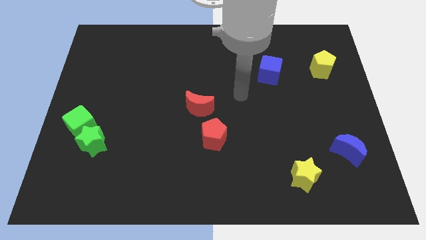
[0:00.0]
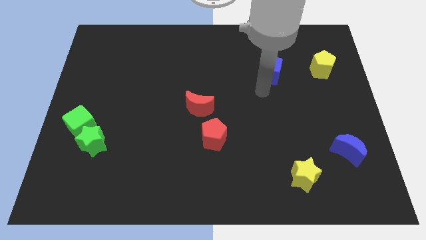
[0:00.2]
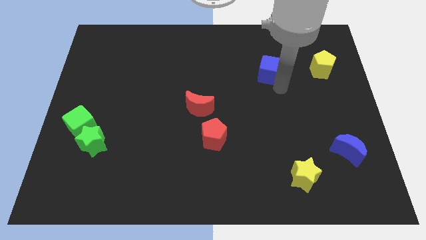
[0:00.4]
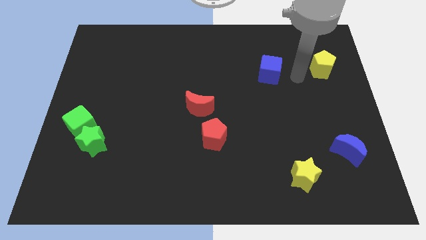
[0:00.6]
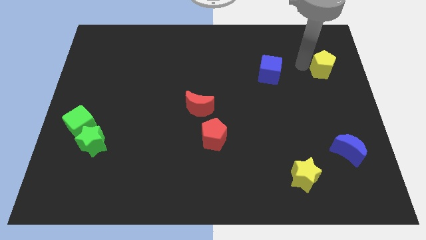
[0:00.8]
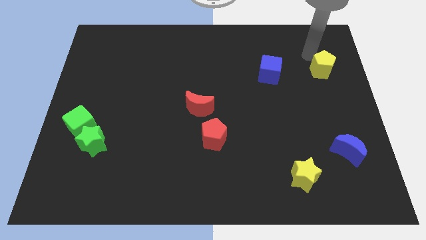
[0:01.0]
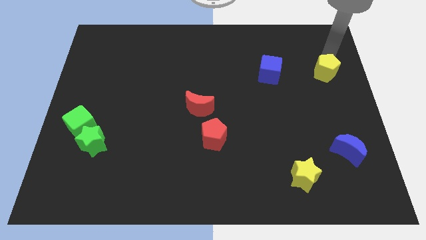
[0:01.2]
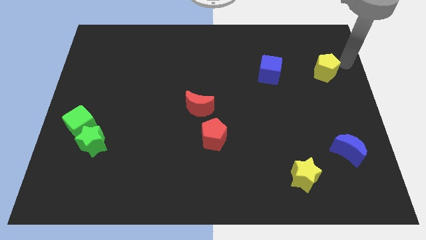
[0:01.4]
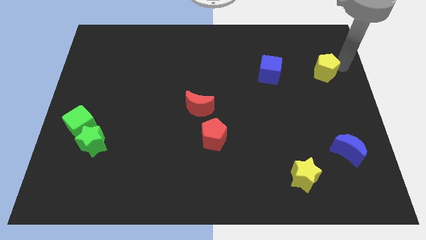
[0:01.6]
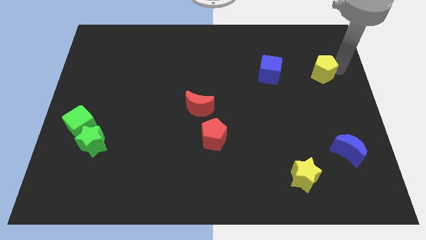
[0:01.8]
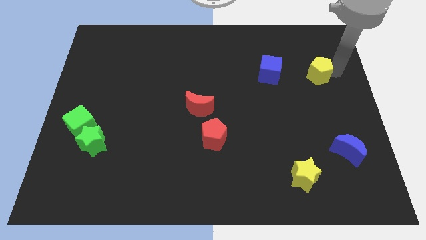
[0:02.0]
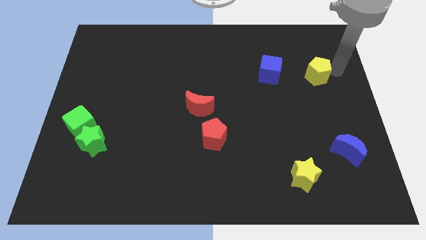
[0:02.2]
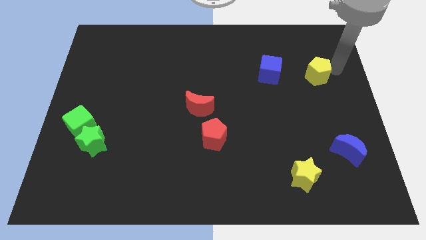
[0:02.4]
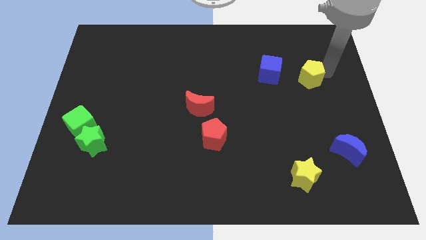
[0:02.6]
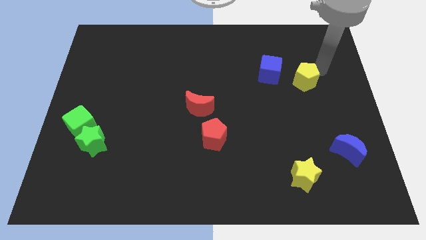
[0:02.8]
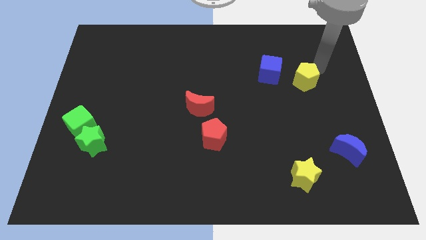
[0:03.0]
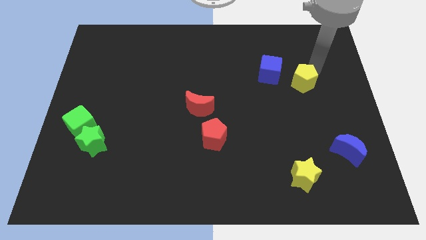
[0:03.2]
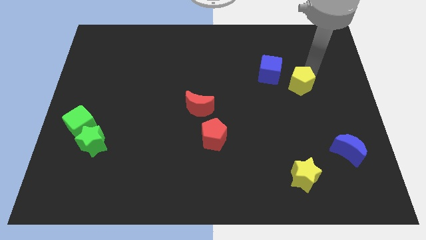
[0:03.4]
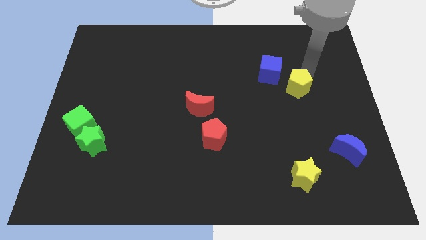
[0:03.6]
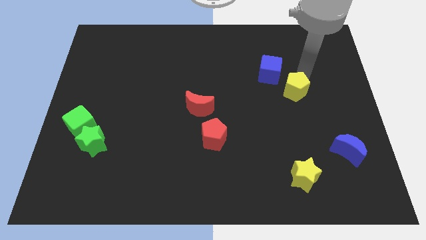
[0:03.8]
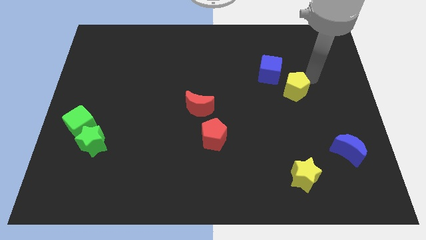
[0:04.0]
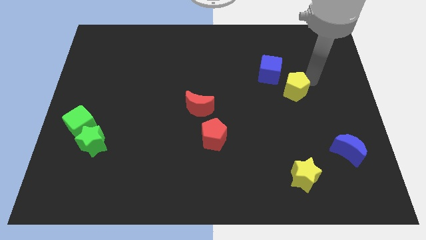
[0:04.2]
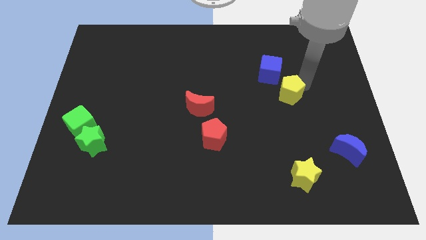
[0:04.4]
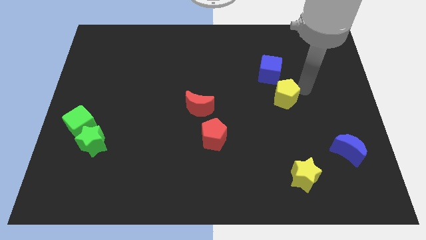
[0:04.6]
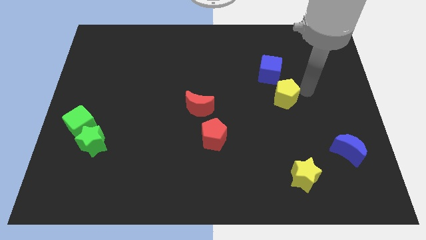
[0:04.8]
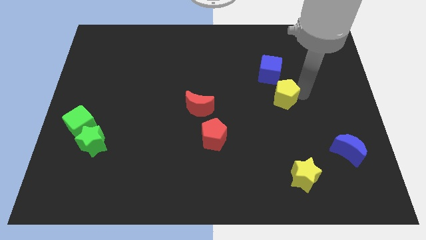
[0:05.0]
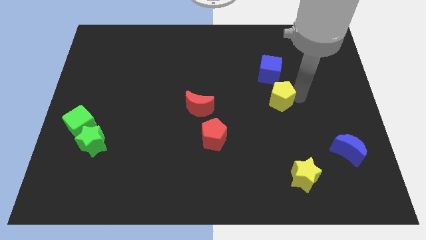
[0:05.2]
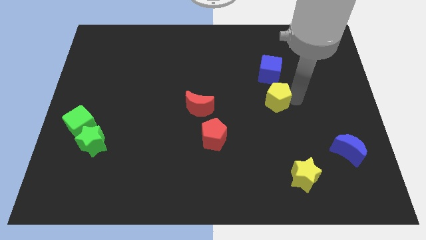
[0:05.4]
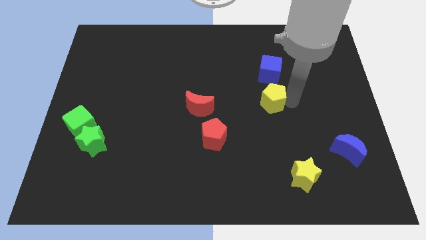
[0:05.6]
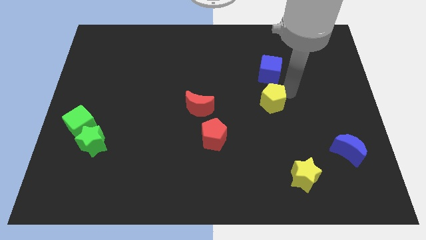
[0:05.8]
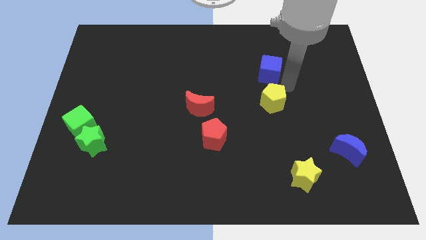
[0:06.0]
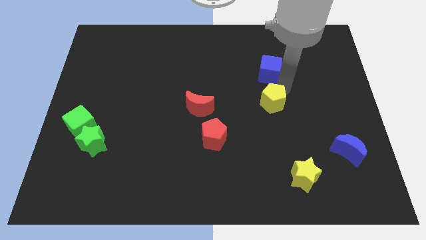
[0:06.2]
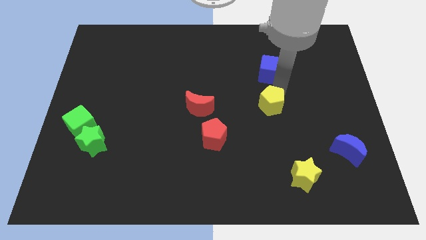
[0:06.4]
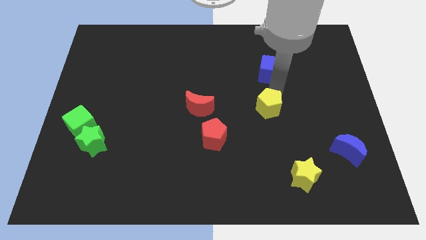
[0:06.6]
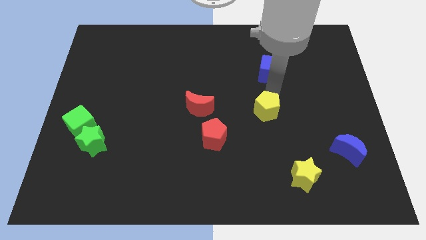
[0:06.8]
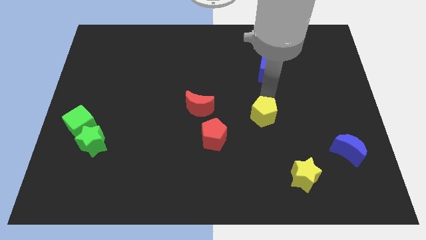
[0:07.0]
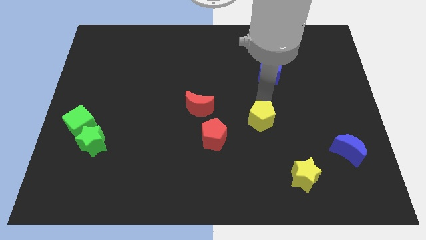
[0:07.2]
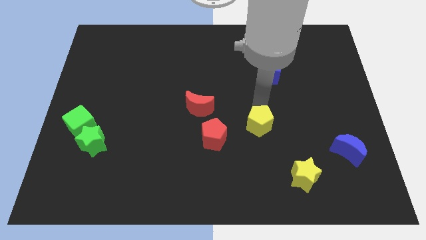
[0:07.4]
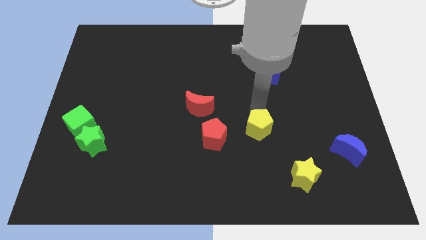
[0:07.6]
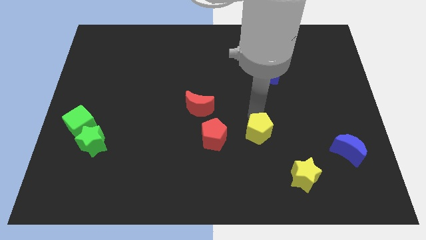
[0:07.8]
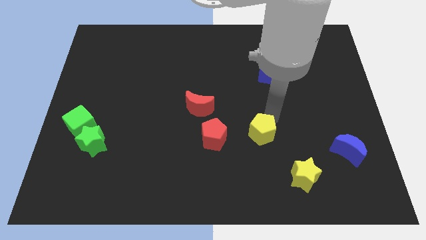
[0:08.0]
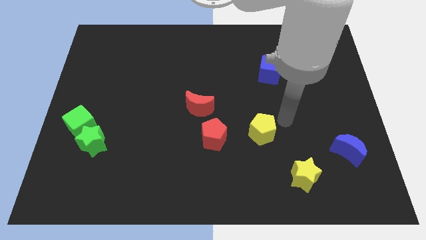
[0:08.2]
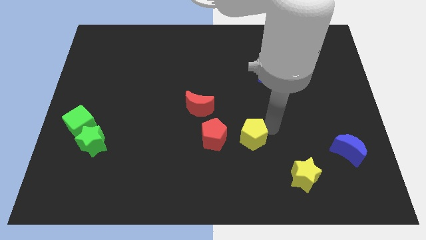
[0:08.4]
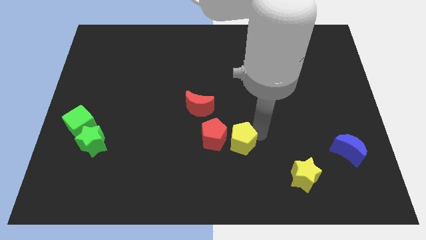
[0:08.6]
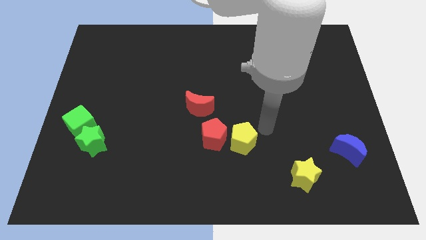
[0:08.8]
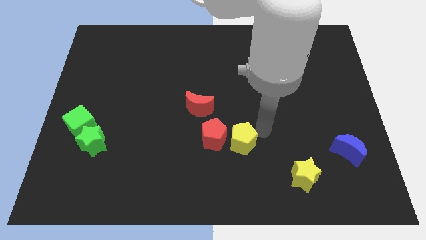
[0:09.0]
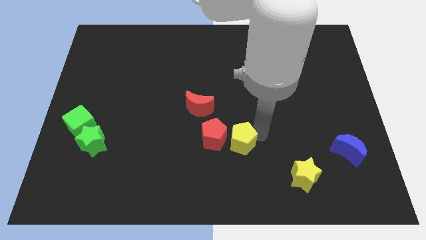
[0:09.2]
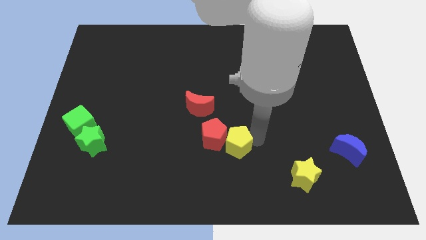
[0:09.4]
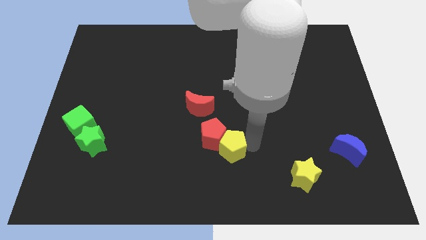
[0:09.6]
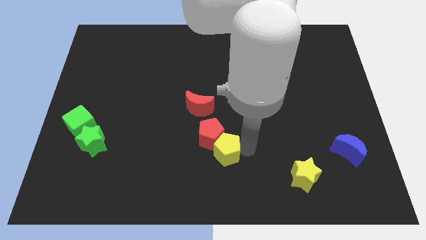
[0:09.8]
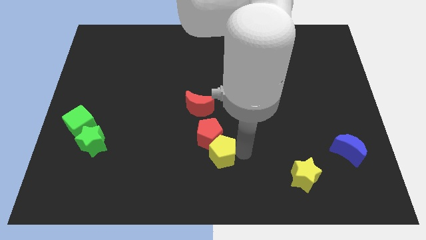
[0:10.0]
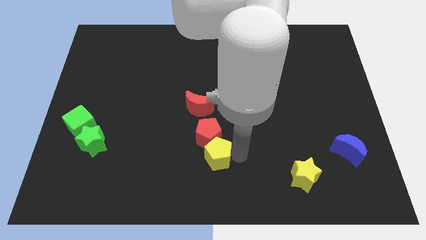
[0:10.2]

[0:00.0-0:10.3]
put the yellow pentagon to the bottom of the red moon

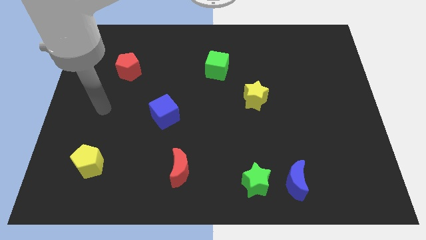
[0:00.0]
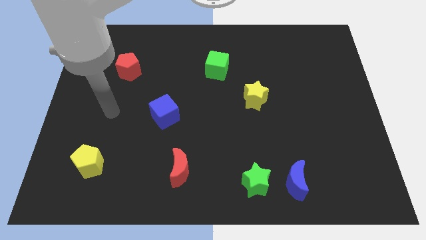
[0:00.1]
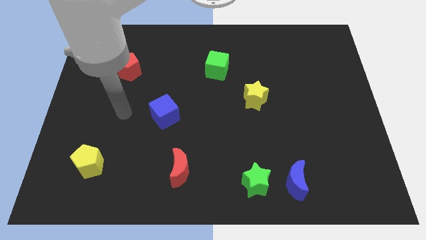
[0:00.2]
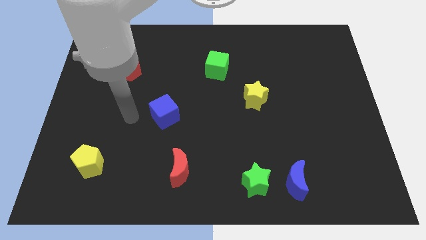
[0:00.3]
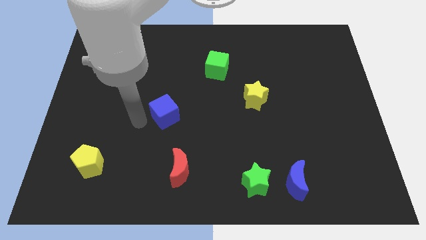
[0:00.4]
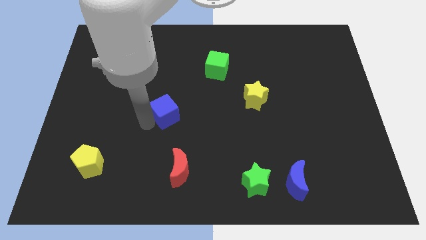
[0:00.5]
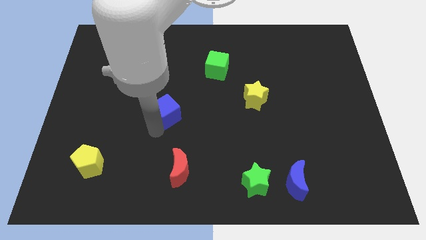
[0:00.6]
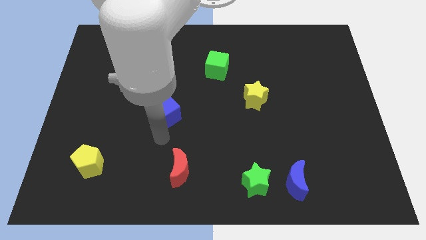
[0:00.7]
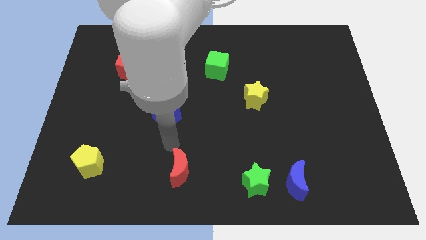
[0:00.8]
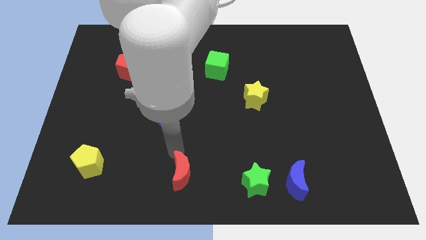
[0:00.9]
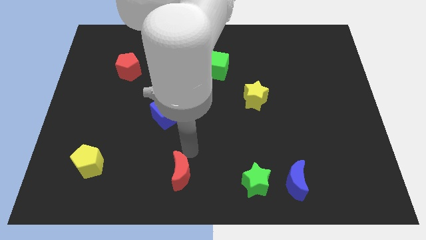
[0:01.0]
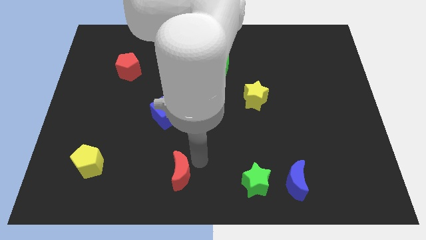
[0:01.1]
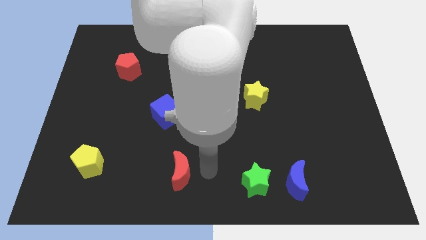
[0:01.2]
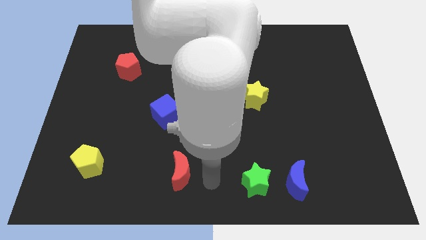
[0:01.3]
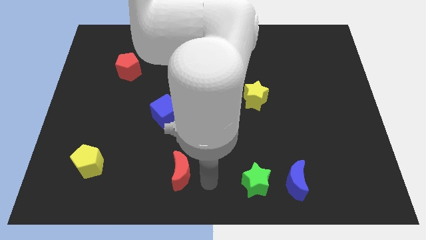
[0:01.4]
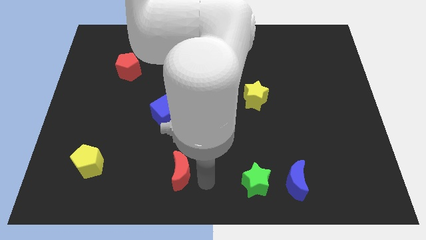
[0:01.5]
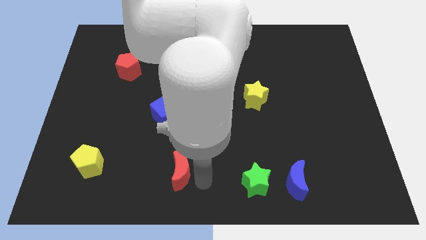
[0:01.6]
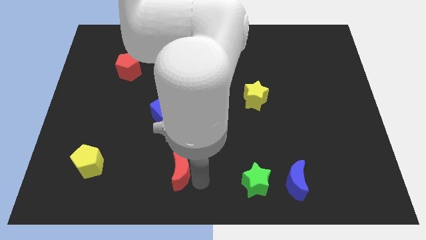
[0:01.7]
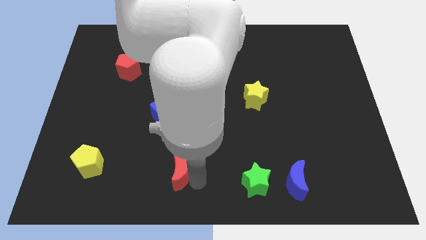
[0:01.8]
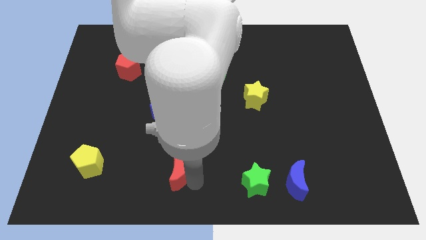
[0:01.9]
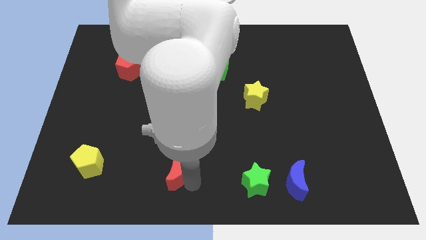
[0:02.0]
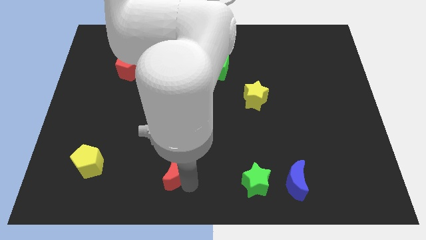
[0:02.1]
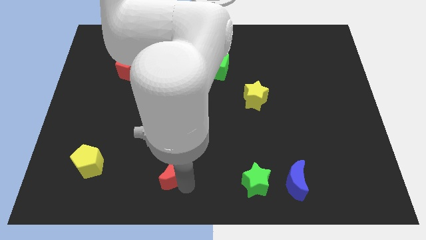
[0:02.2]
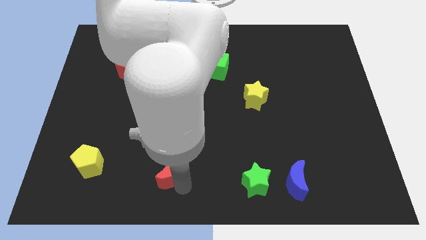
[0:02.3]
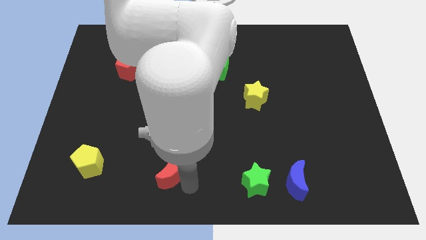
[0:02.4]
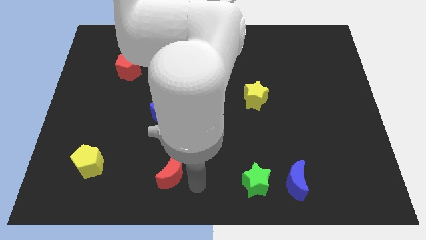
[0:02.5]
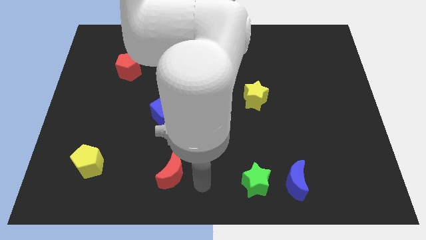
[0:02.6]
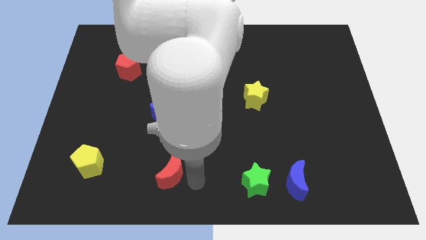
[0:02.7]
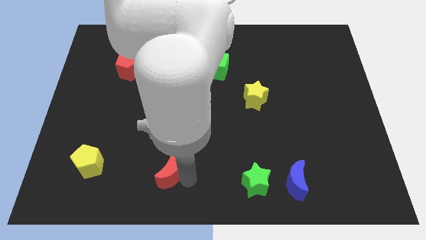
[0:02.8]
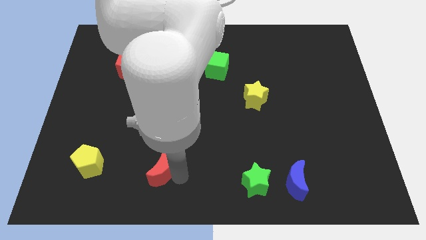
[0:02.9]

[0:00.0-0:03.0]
slide the red moon right of the yellow pentagon
